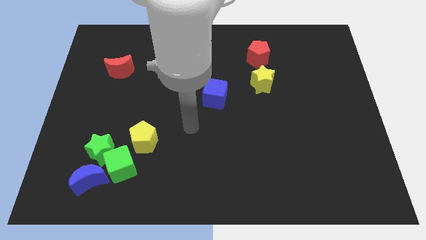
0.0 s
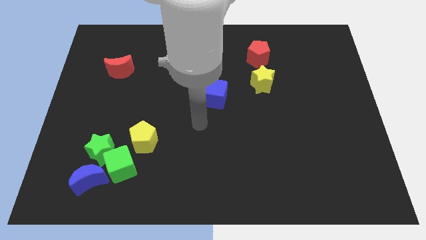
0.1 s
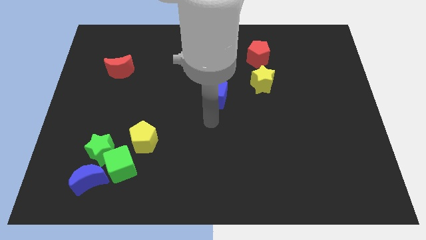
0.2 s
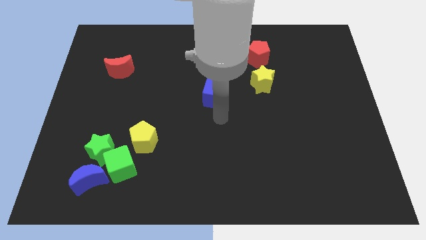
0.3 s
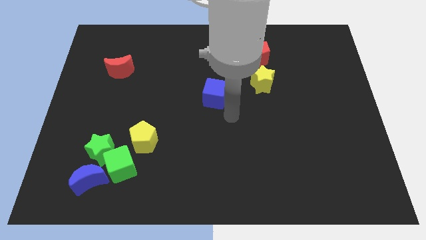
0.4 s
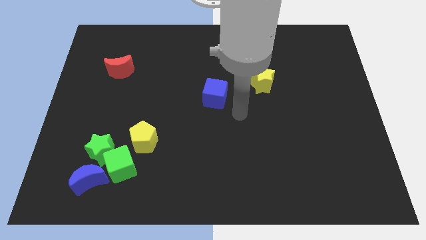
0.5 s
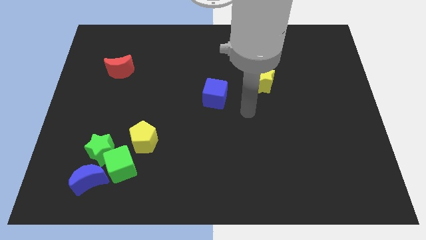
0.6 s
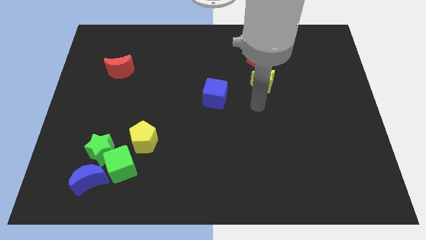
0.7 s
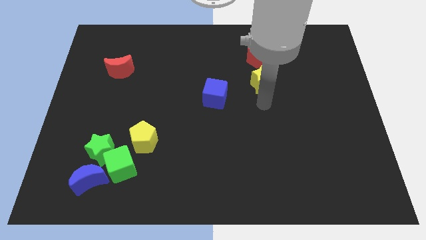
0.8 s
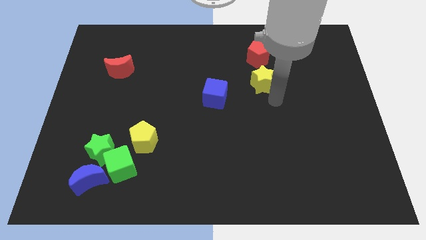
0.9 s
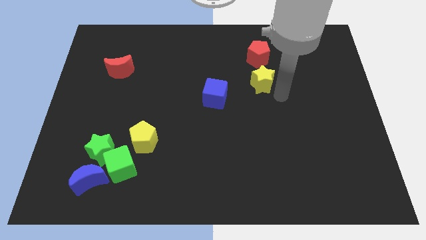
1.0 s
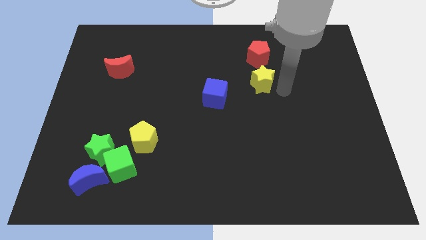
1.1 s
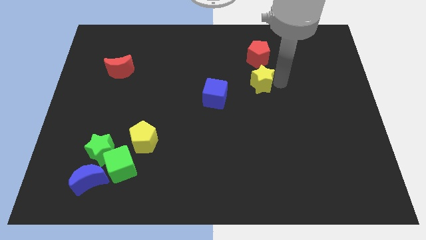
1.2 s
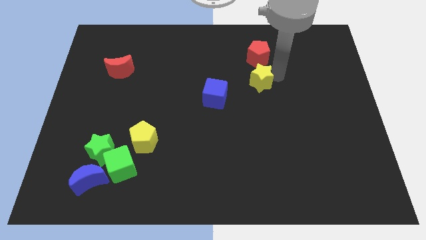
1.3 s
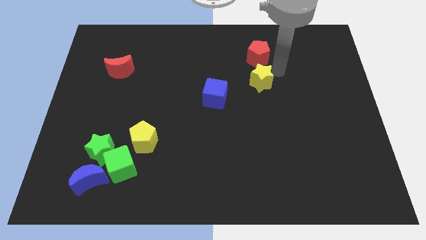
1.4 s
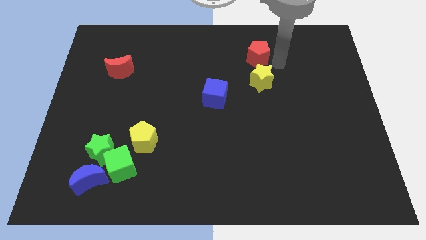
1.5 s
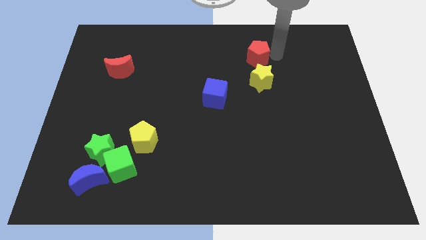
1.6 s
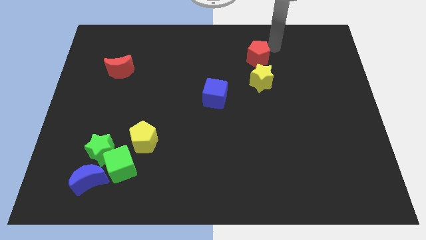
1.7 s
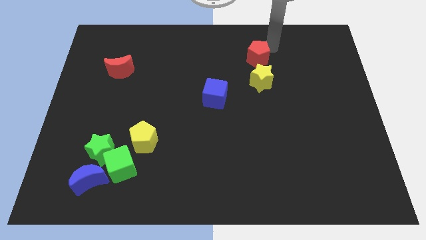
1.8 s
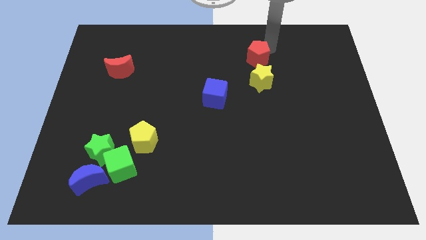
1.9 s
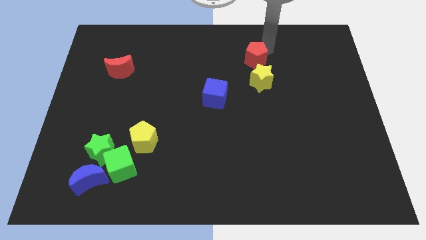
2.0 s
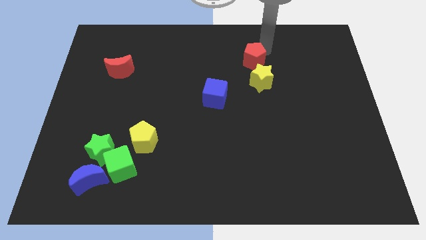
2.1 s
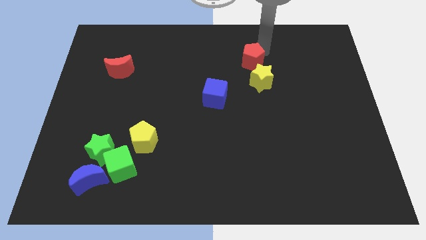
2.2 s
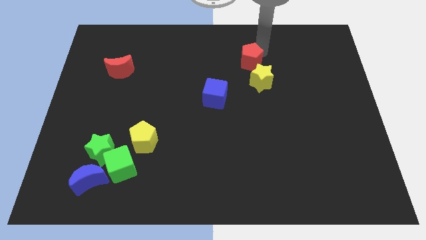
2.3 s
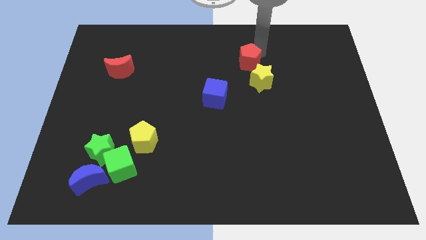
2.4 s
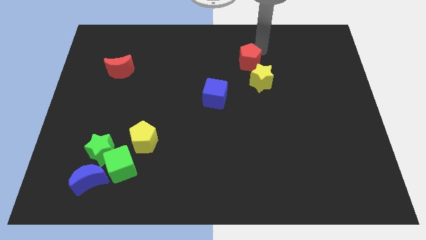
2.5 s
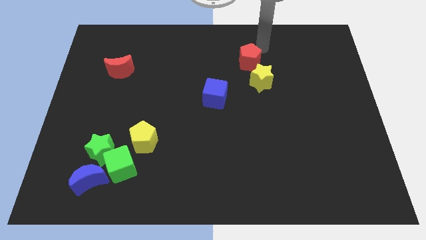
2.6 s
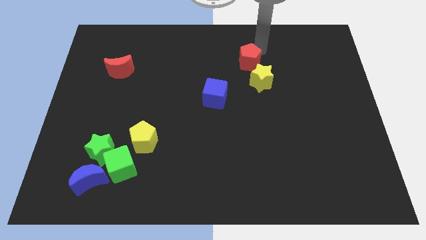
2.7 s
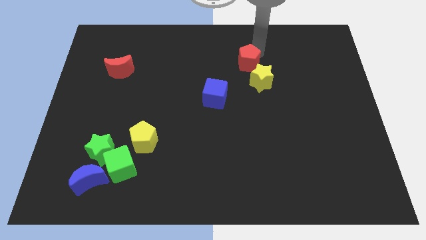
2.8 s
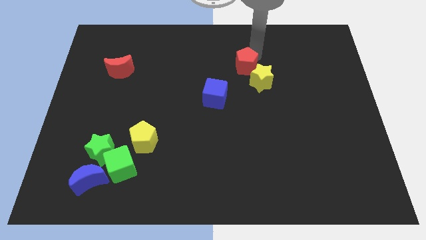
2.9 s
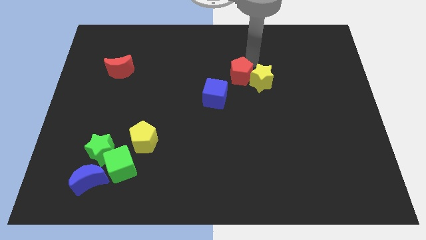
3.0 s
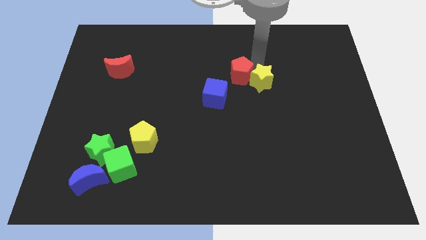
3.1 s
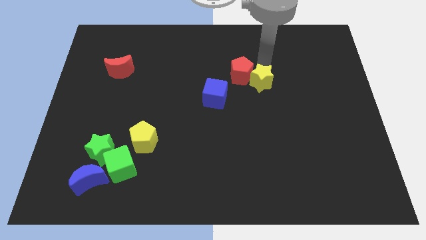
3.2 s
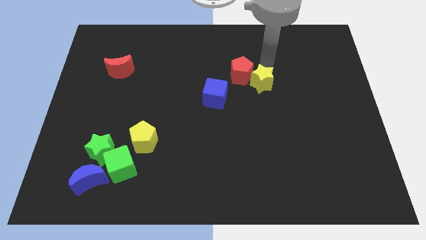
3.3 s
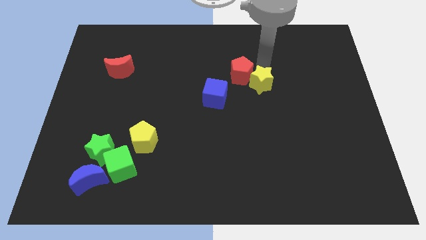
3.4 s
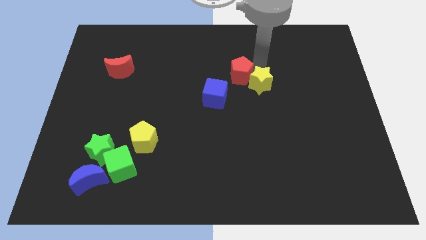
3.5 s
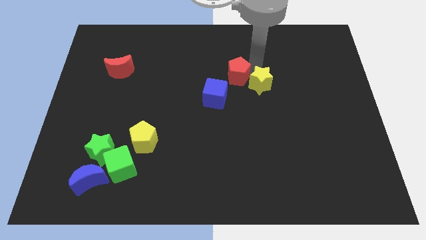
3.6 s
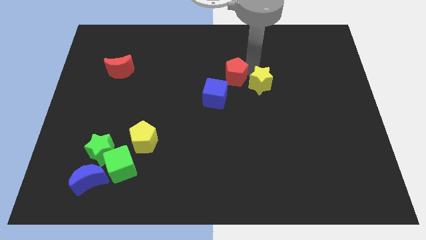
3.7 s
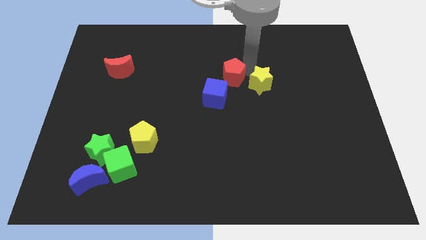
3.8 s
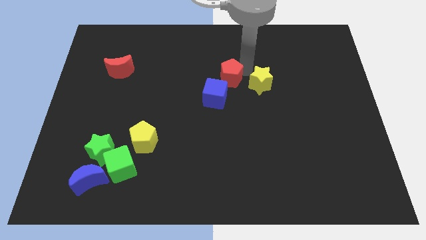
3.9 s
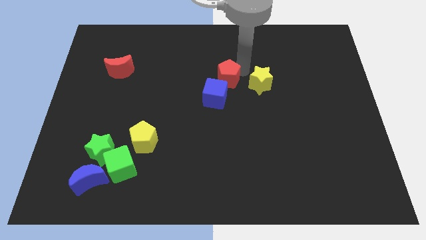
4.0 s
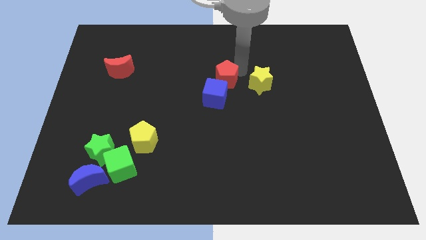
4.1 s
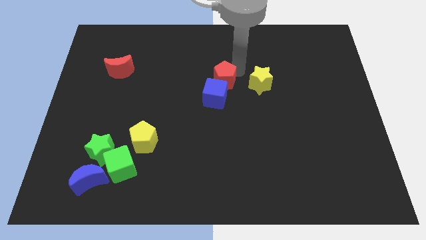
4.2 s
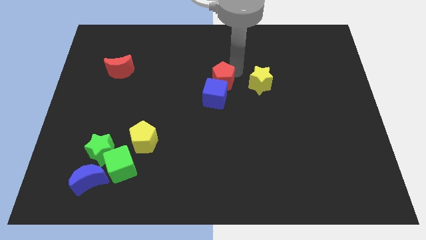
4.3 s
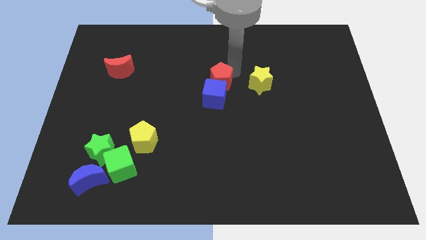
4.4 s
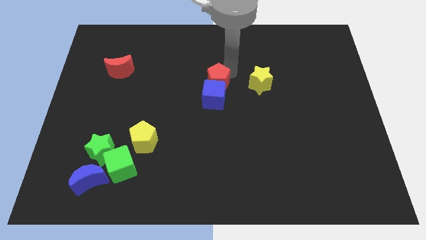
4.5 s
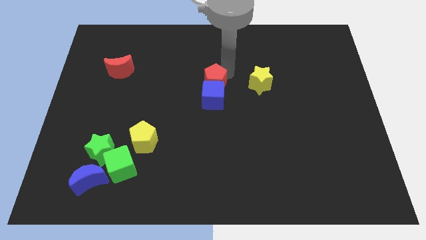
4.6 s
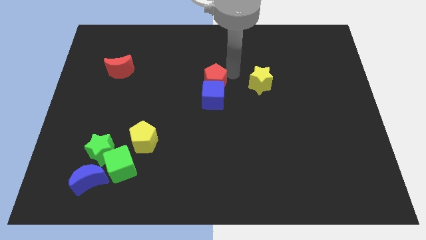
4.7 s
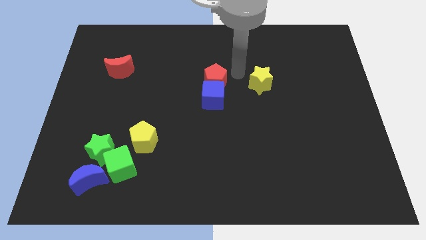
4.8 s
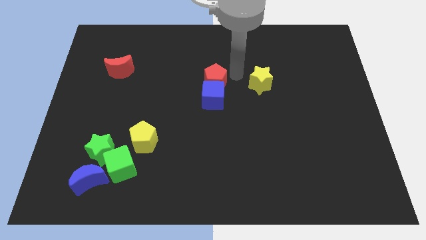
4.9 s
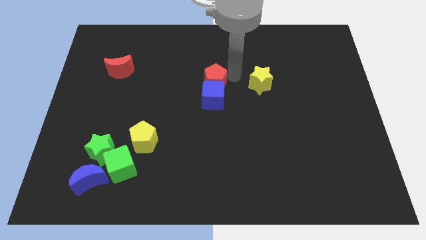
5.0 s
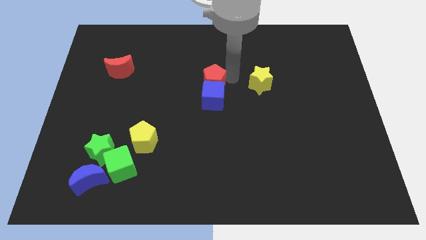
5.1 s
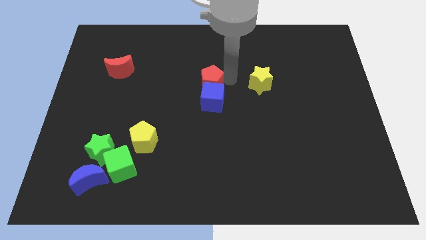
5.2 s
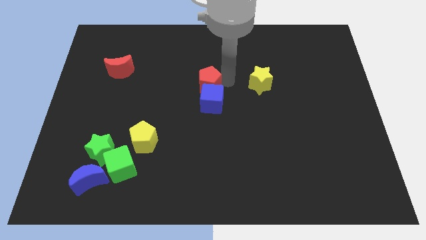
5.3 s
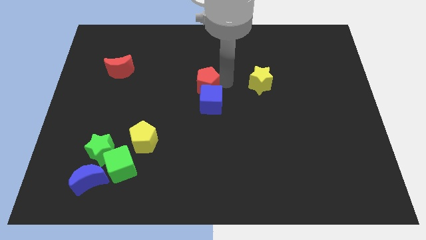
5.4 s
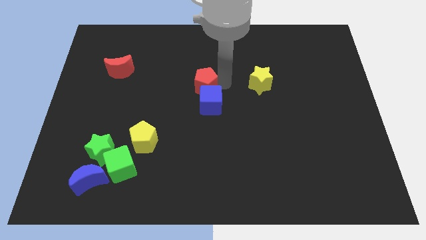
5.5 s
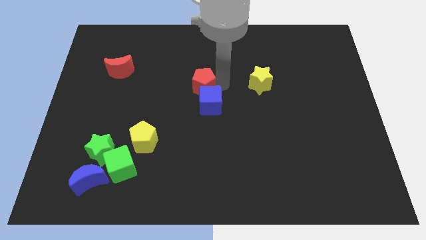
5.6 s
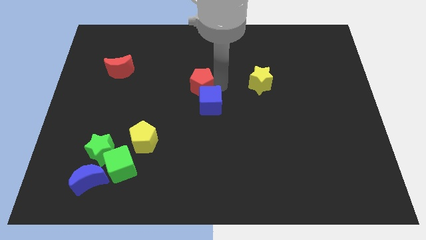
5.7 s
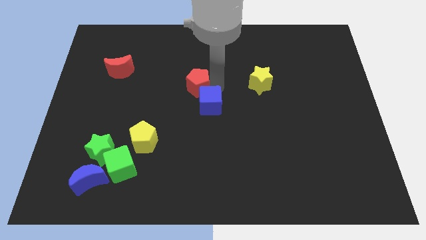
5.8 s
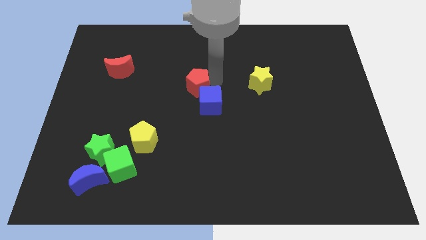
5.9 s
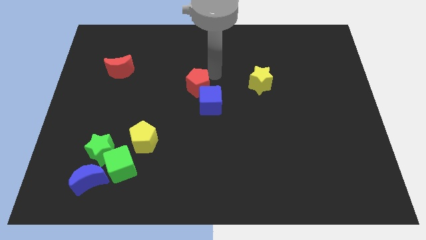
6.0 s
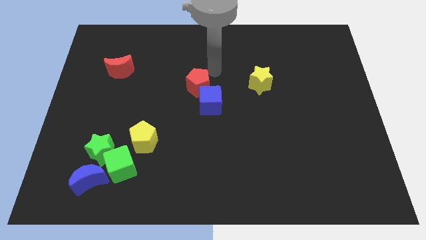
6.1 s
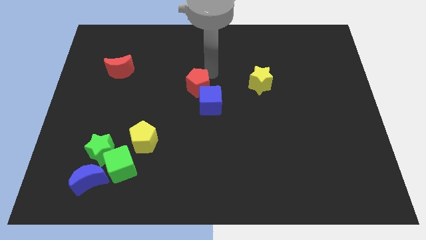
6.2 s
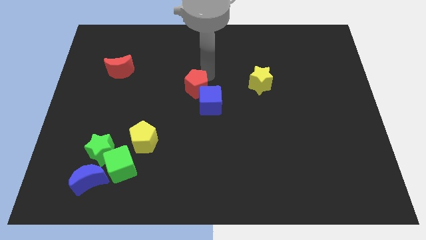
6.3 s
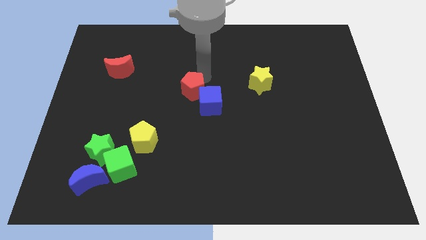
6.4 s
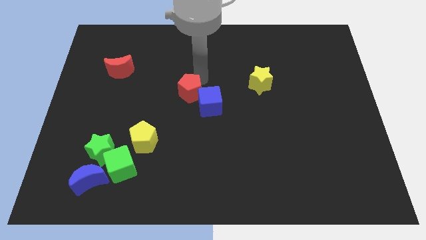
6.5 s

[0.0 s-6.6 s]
slide the red pentagon down and then to the left

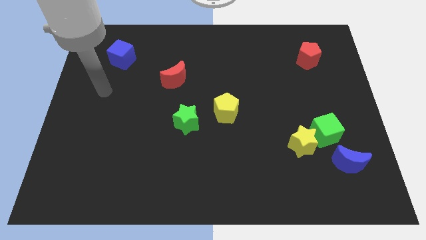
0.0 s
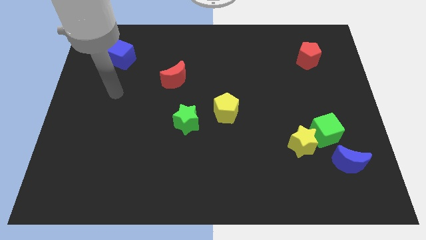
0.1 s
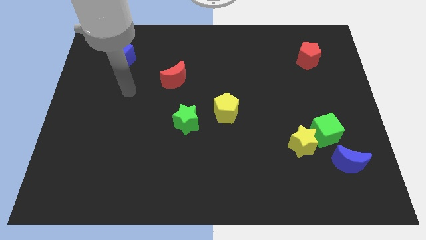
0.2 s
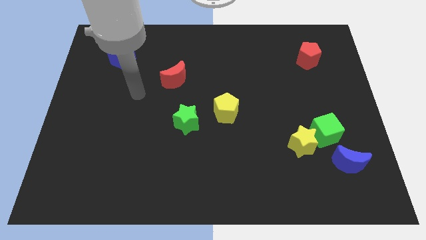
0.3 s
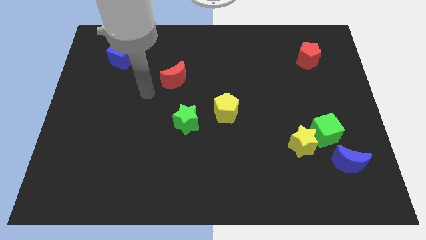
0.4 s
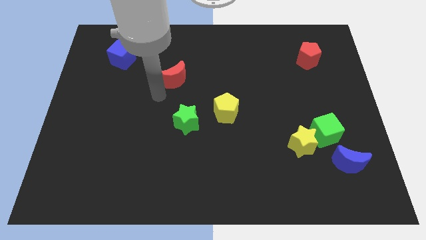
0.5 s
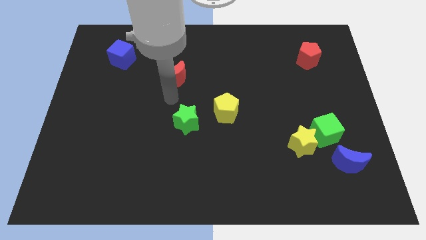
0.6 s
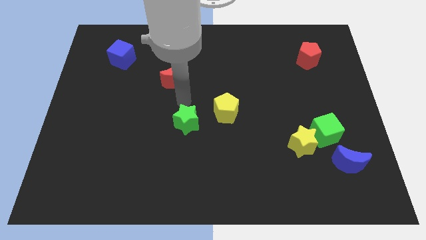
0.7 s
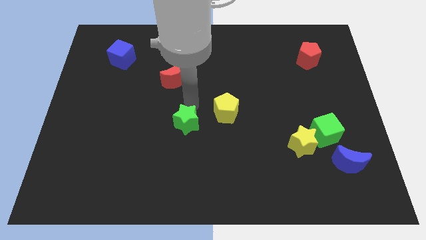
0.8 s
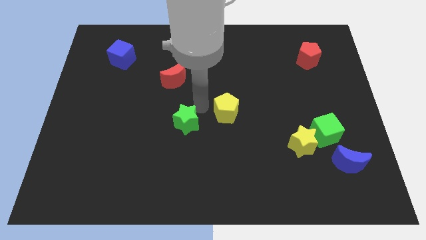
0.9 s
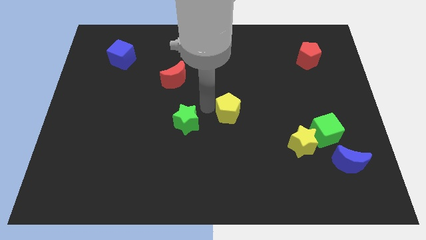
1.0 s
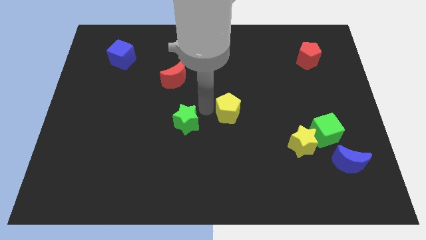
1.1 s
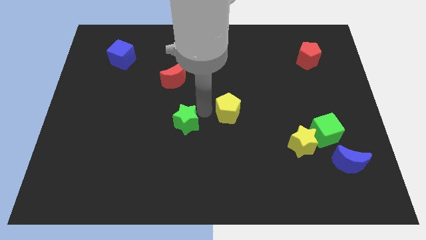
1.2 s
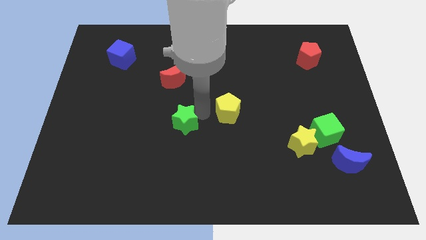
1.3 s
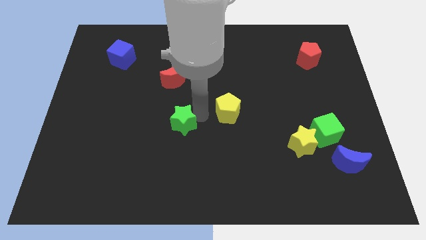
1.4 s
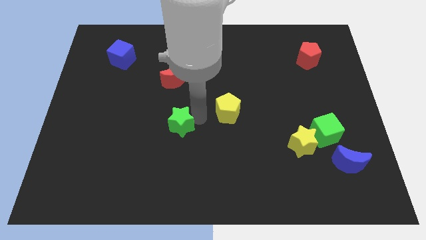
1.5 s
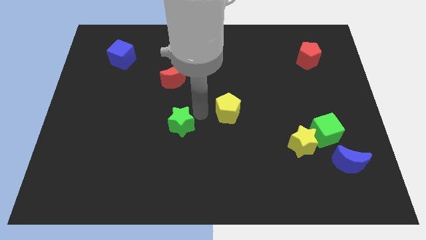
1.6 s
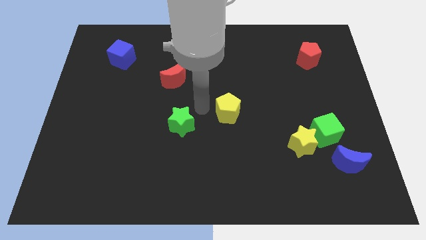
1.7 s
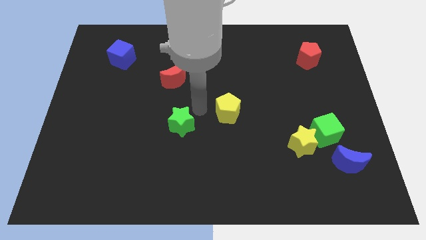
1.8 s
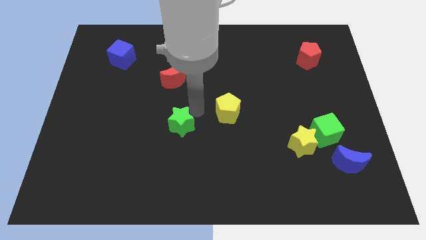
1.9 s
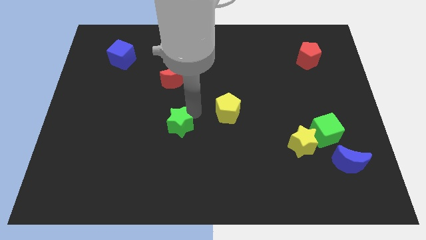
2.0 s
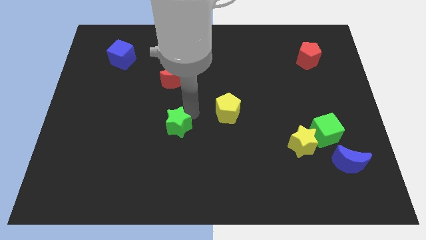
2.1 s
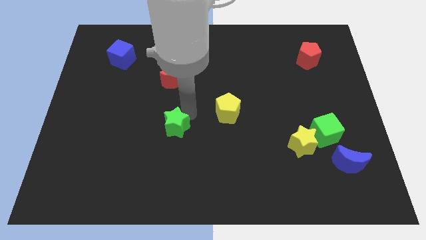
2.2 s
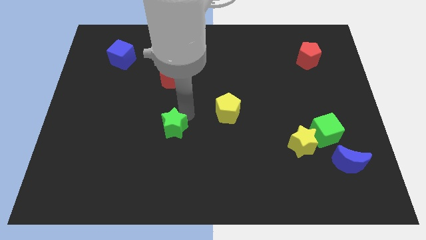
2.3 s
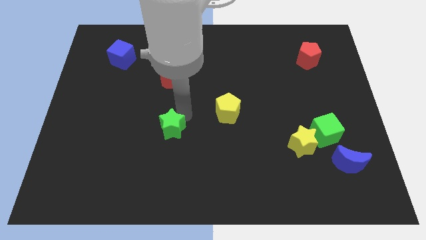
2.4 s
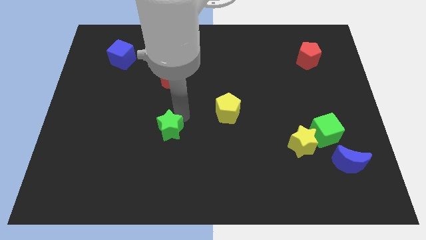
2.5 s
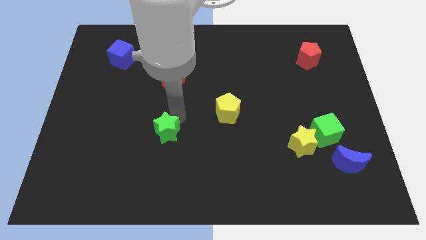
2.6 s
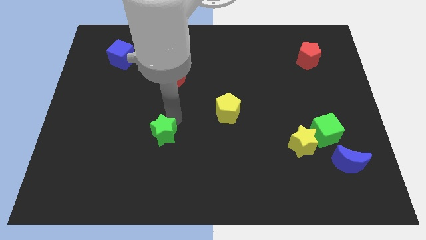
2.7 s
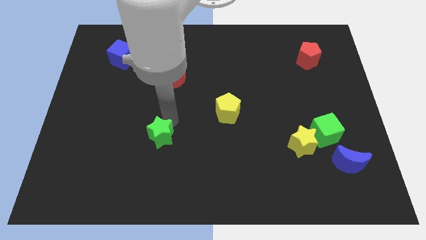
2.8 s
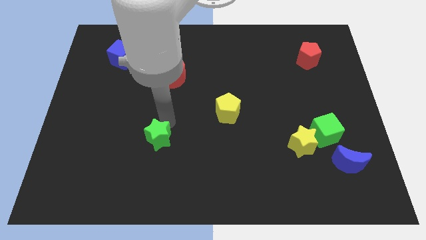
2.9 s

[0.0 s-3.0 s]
slightly push the green star diagonally downwards and to the left
